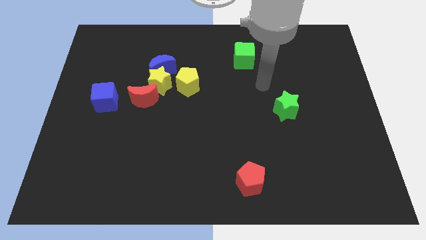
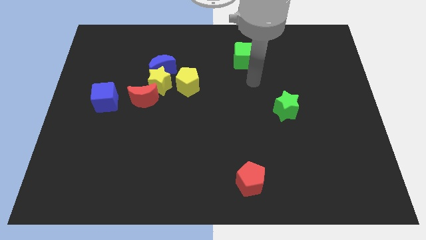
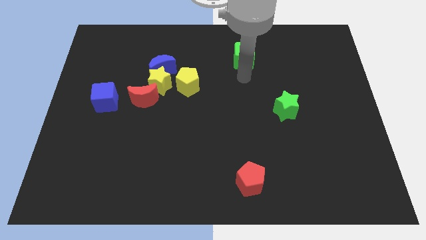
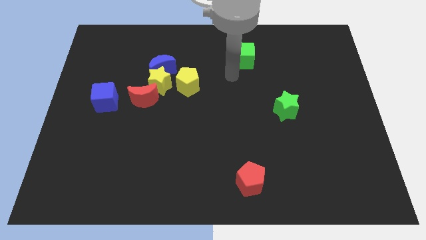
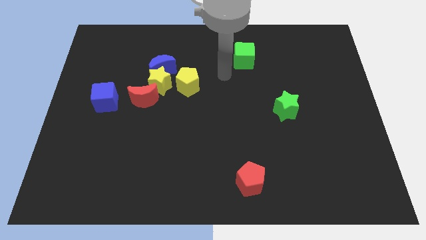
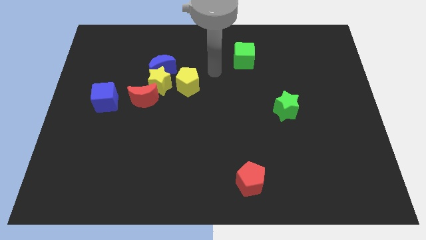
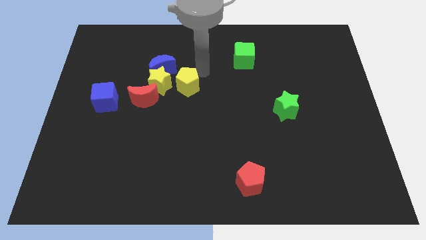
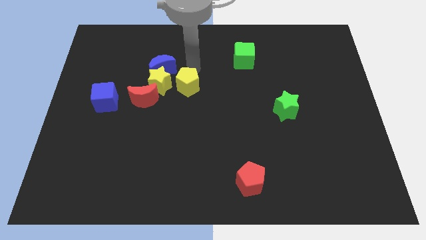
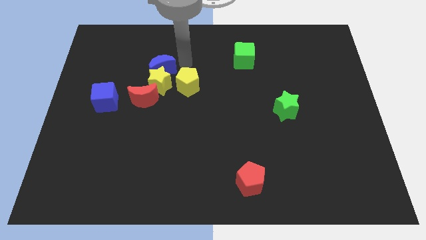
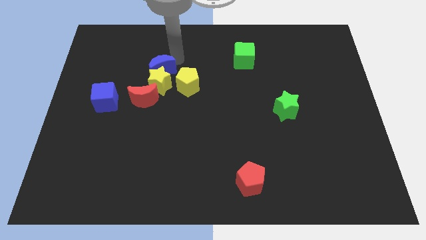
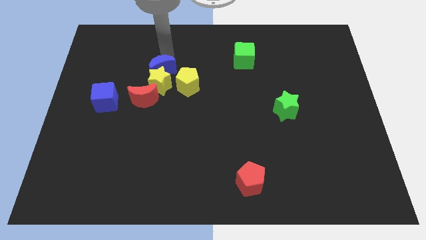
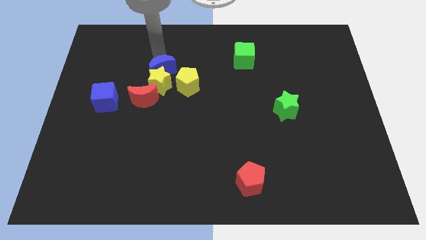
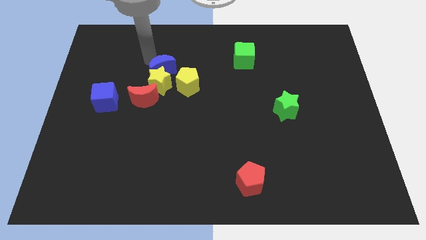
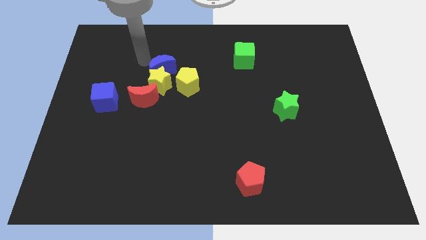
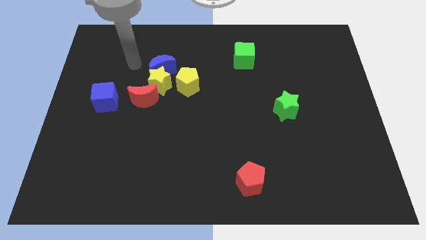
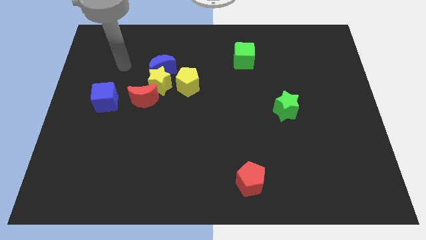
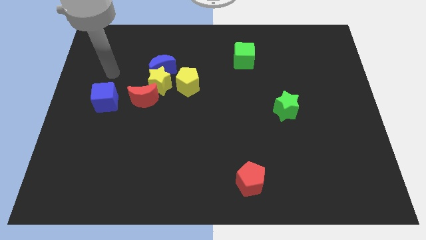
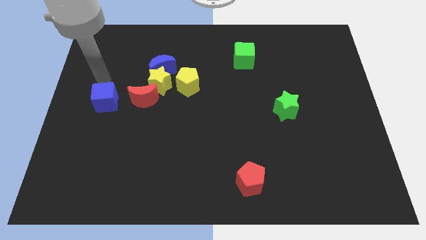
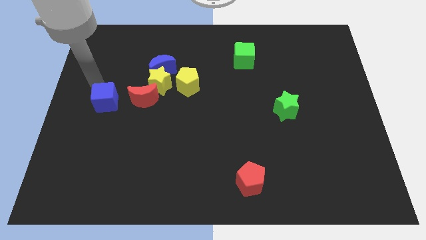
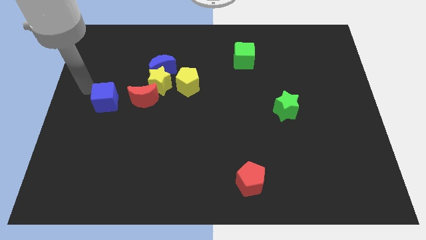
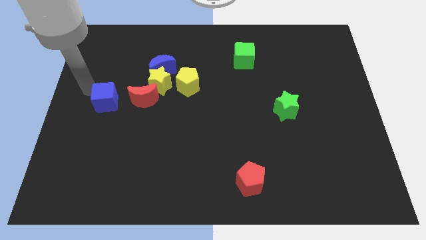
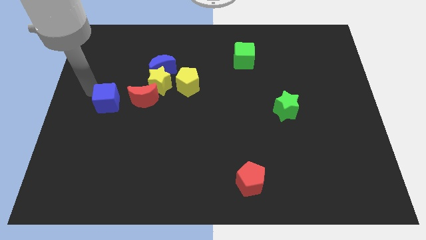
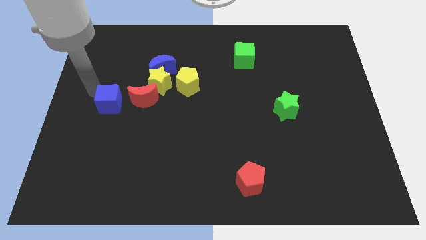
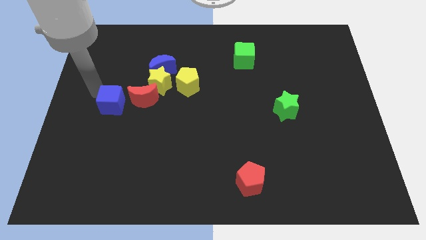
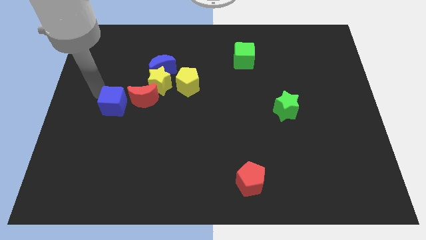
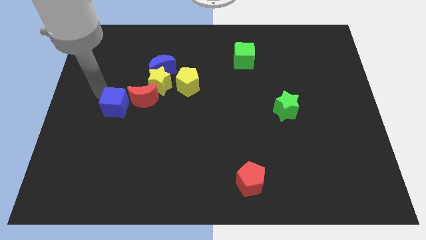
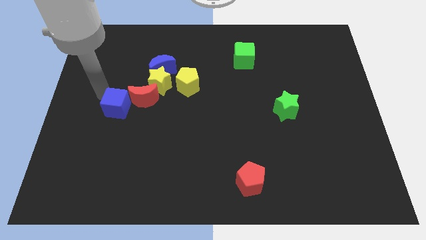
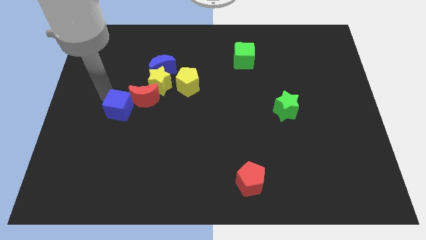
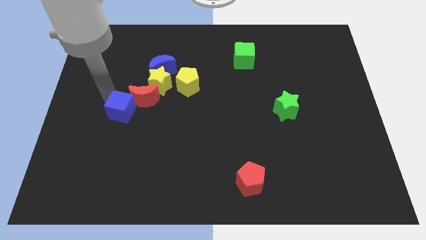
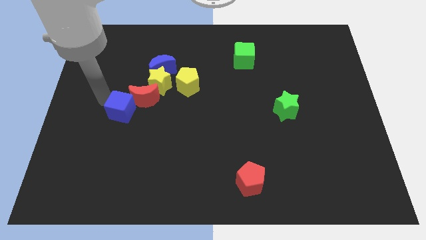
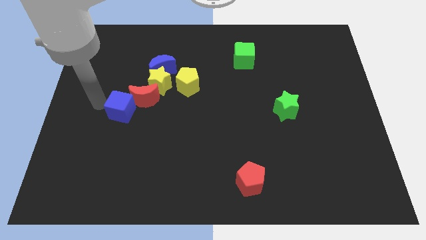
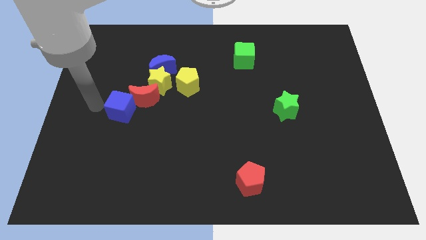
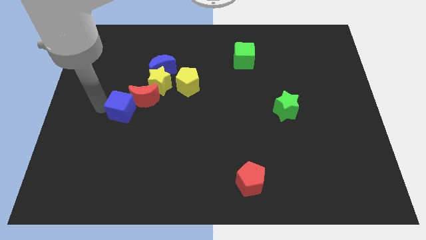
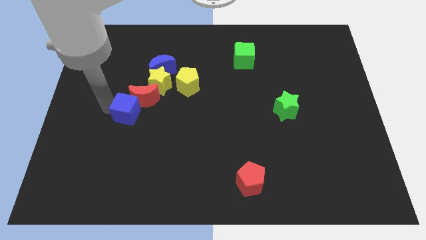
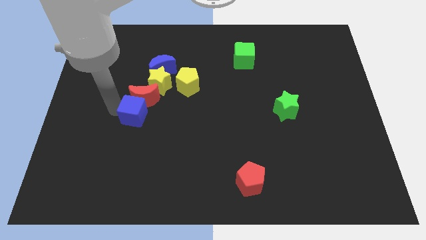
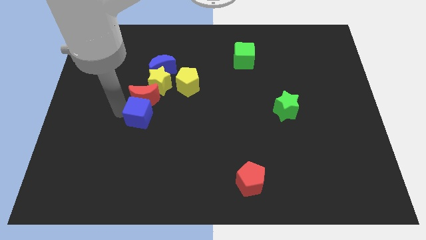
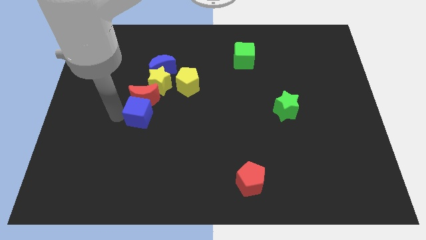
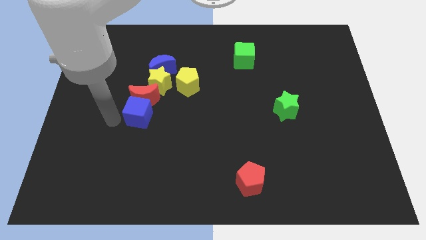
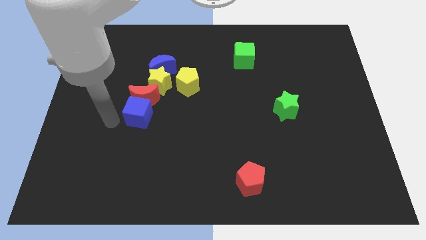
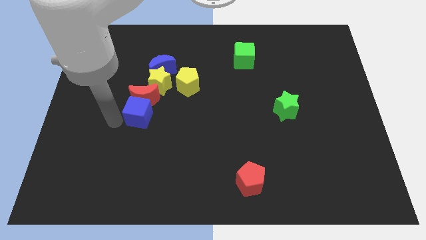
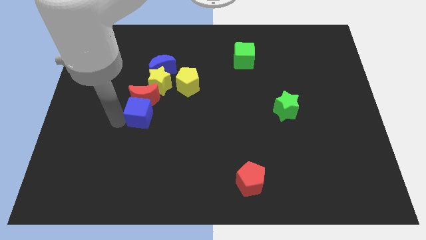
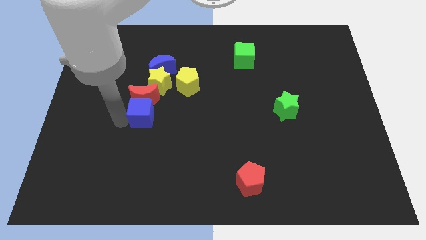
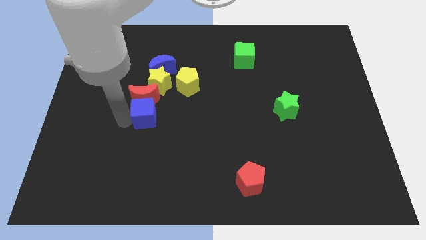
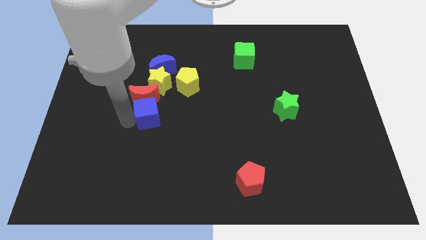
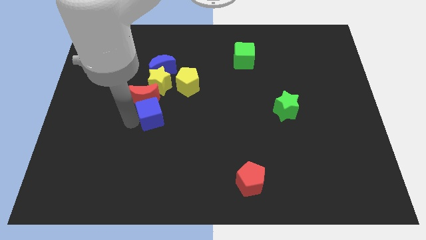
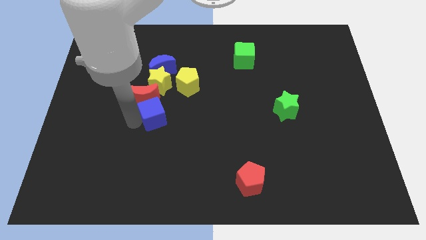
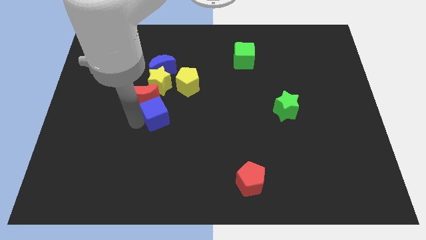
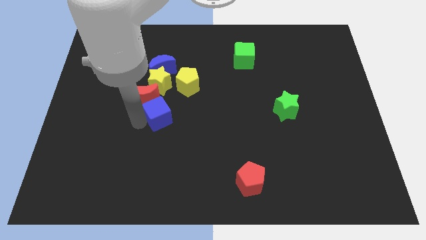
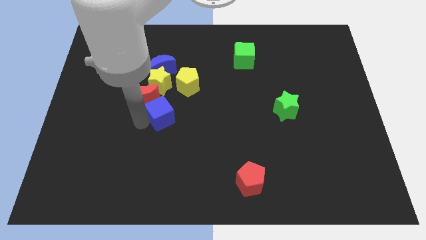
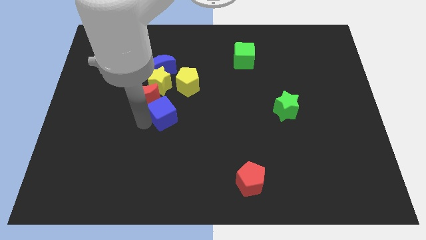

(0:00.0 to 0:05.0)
slide the blue cube to the middle of the board

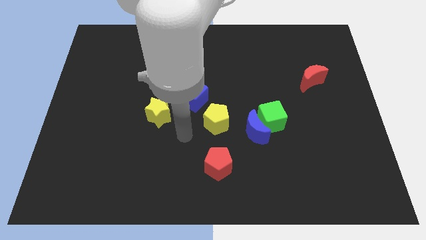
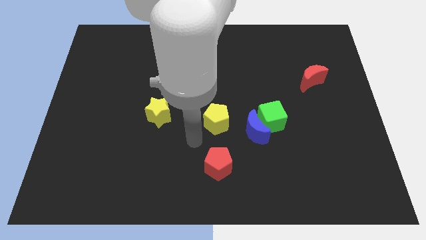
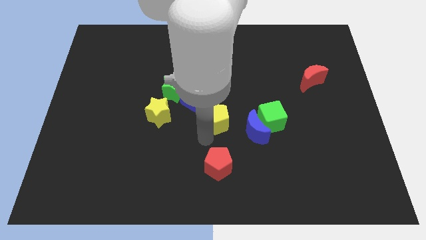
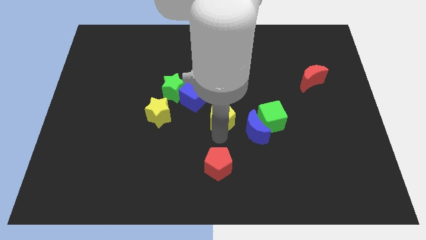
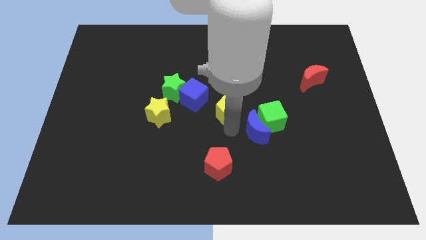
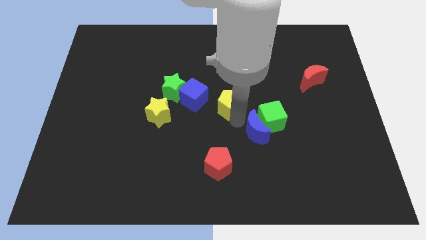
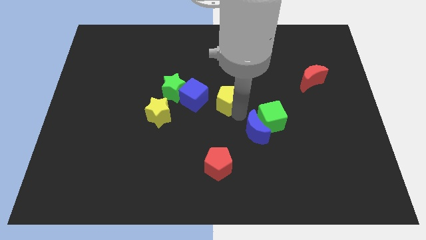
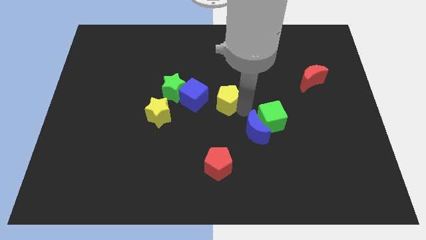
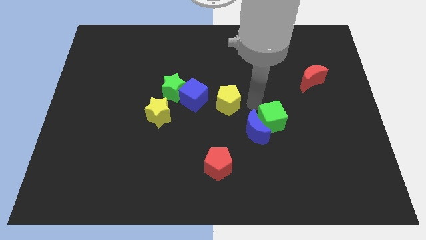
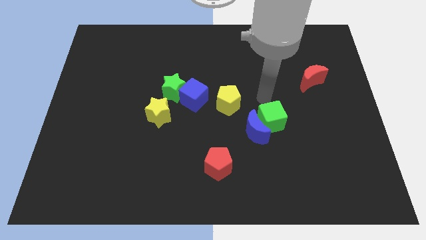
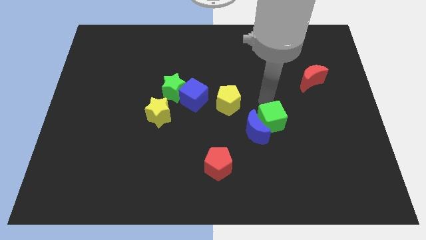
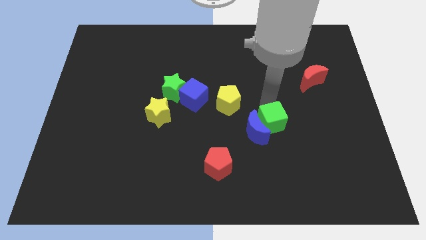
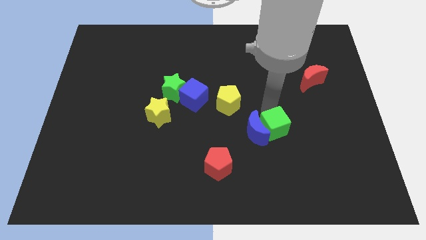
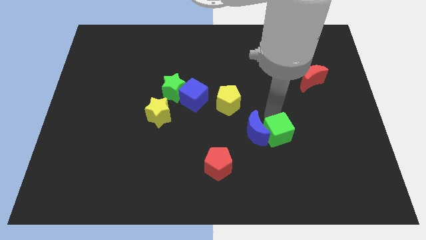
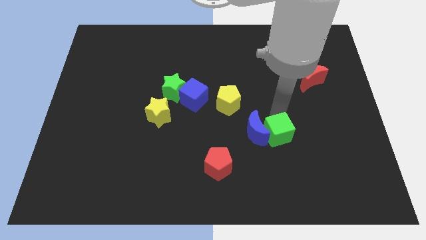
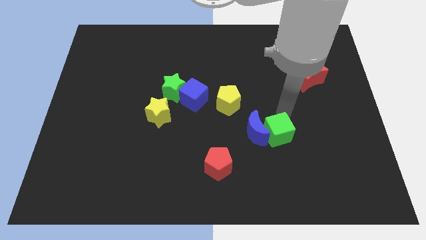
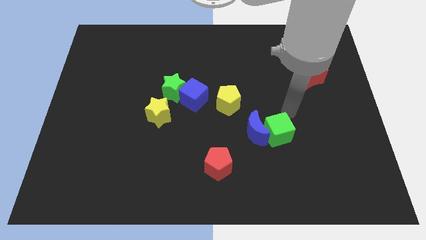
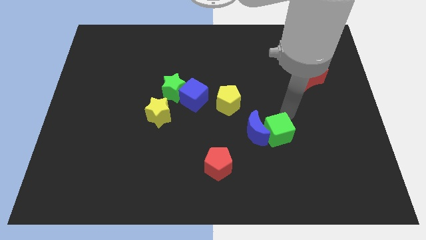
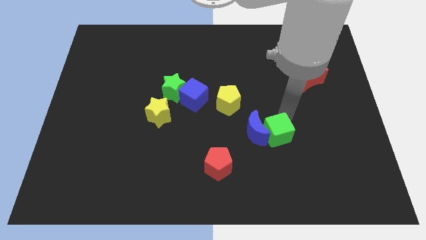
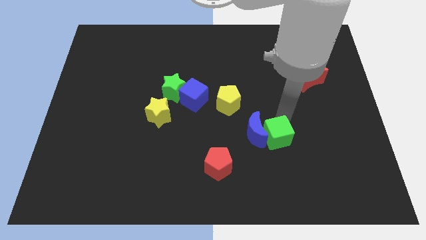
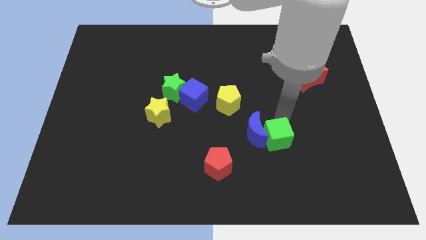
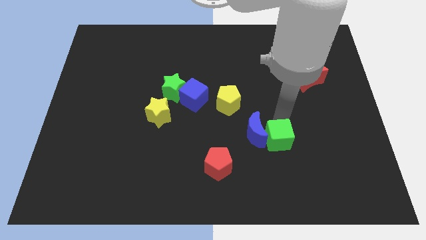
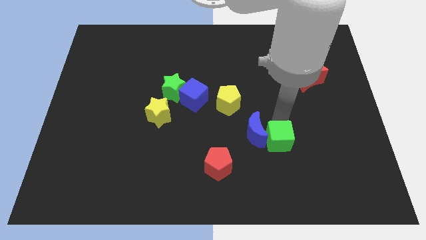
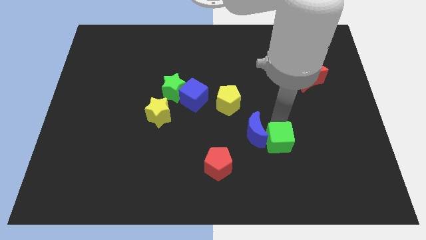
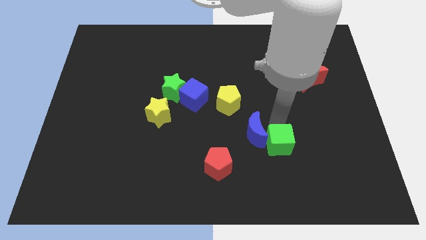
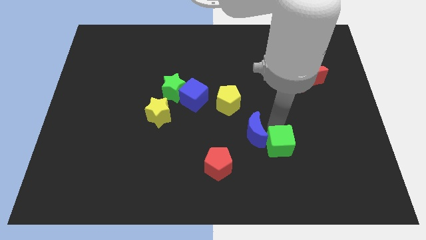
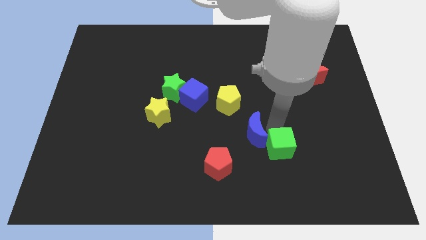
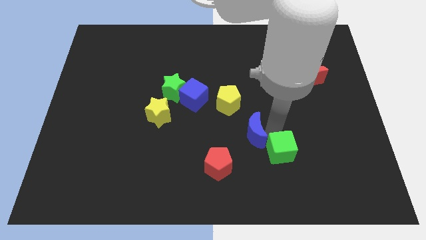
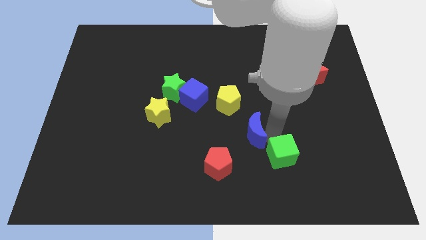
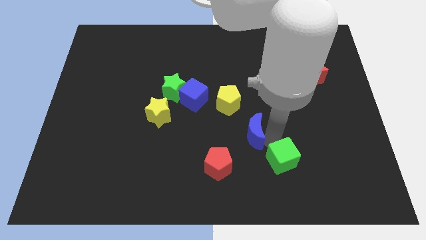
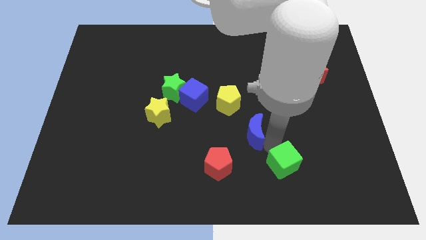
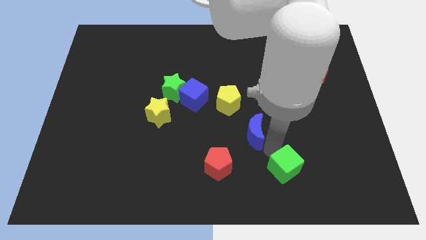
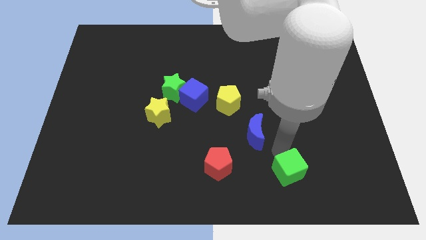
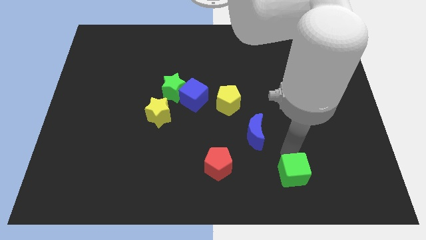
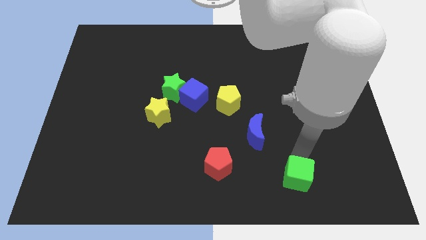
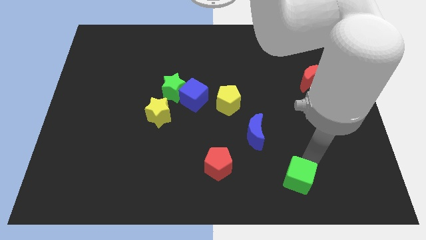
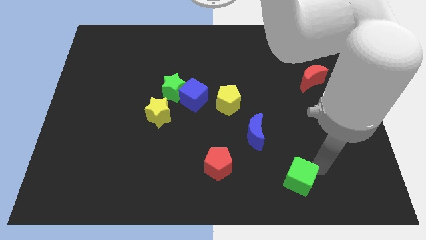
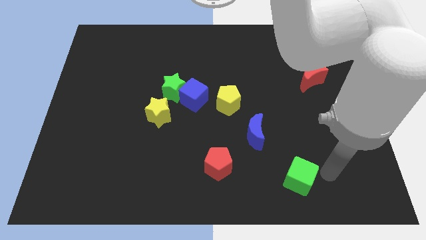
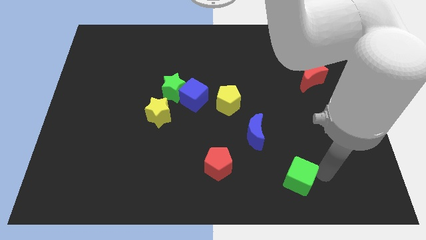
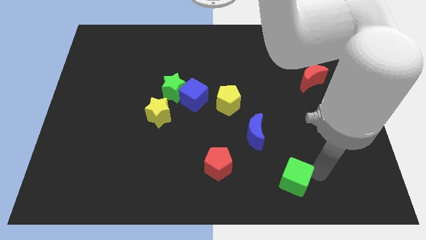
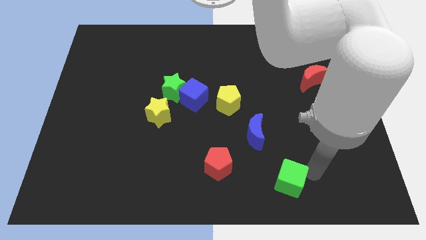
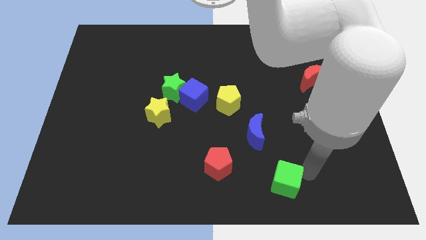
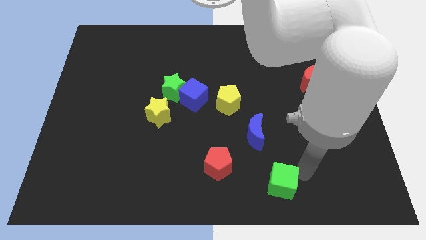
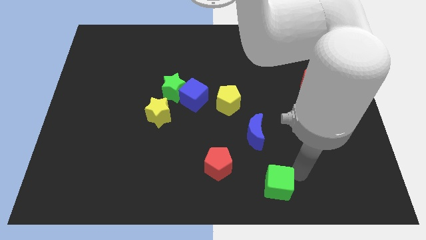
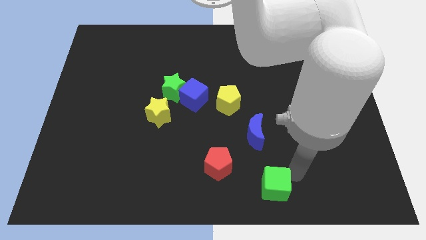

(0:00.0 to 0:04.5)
put the green cube to the bottom
